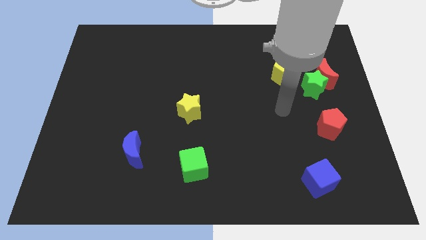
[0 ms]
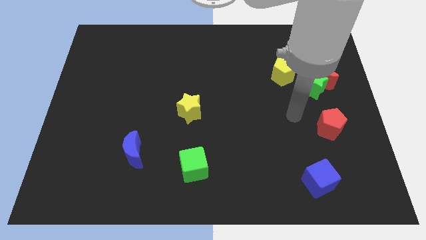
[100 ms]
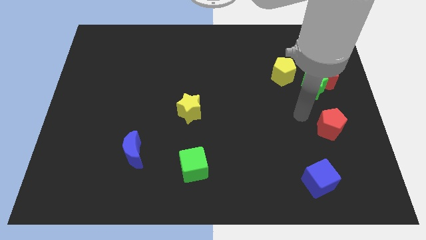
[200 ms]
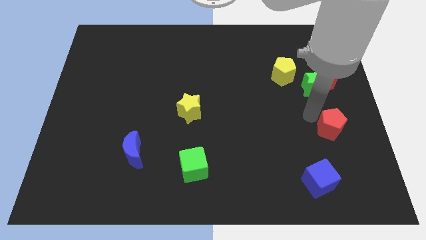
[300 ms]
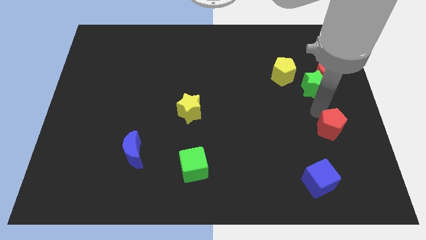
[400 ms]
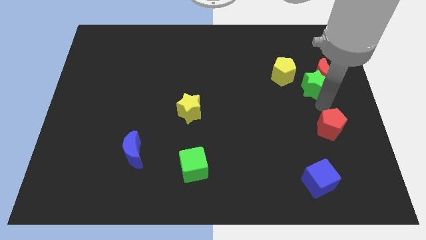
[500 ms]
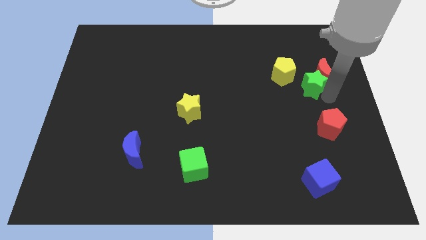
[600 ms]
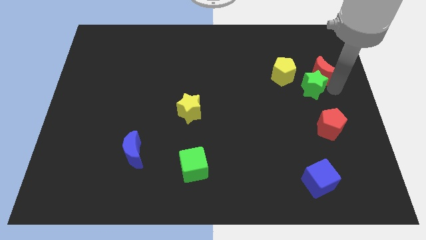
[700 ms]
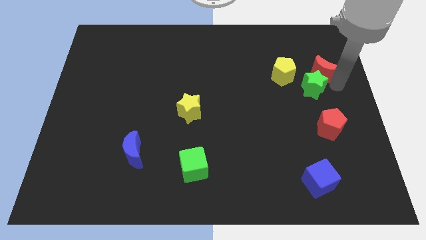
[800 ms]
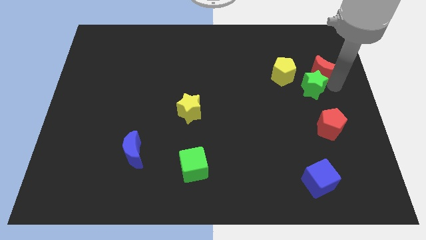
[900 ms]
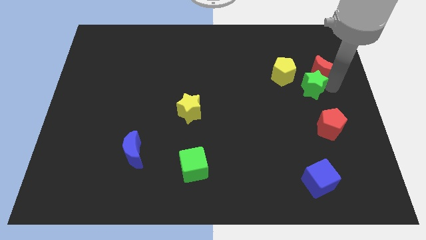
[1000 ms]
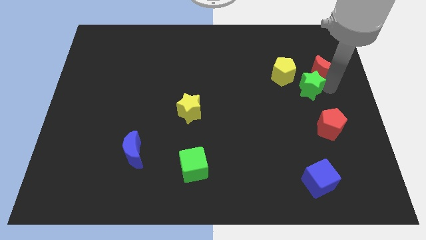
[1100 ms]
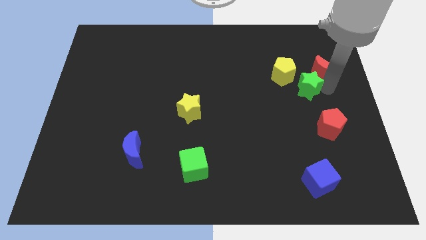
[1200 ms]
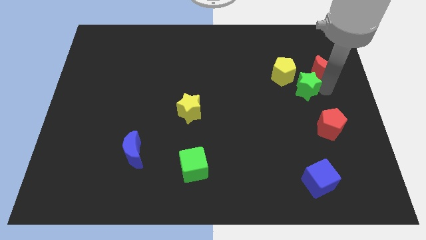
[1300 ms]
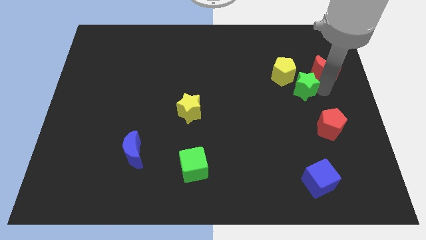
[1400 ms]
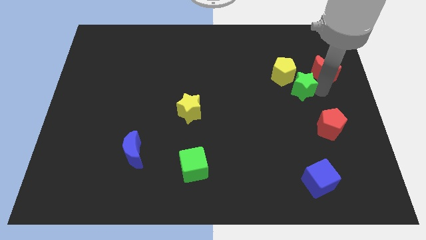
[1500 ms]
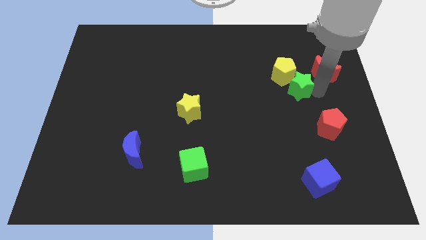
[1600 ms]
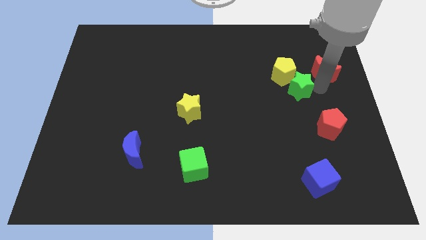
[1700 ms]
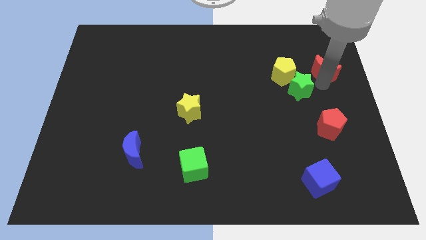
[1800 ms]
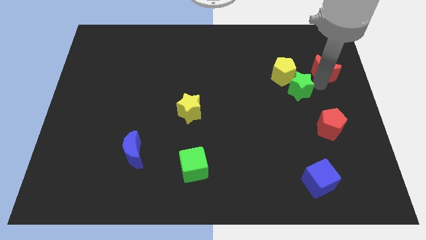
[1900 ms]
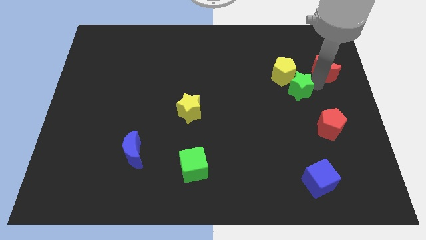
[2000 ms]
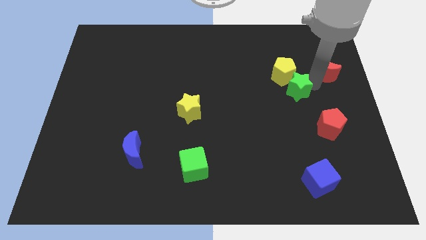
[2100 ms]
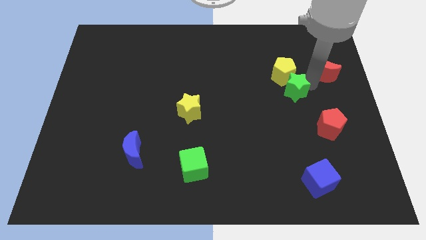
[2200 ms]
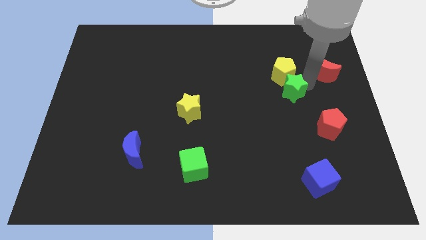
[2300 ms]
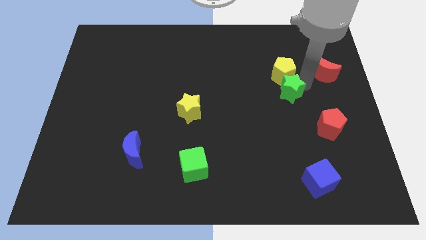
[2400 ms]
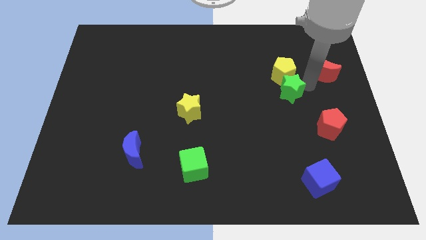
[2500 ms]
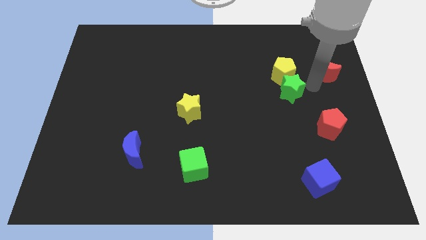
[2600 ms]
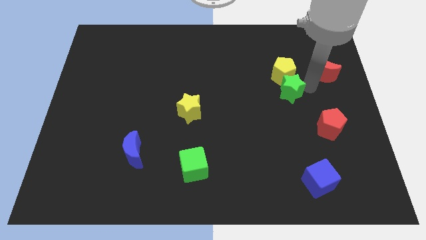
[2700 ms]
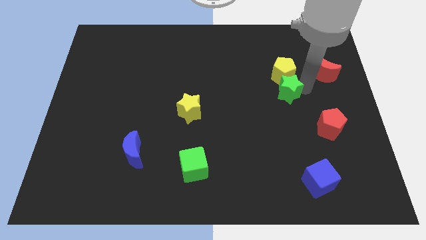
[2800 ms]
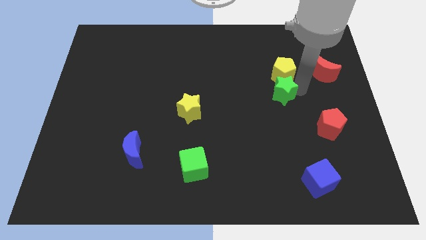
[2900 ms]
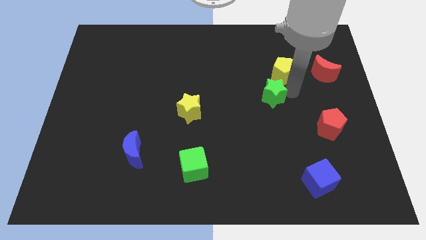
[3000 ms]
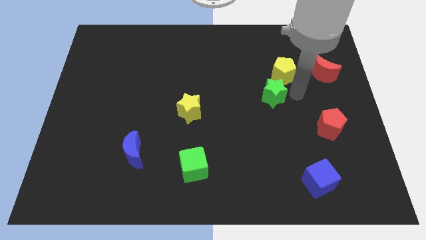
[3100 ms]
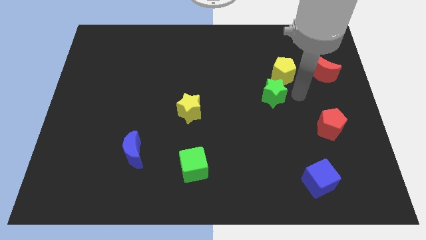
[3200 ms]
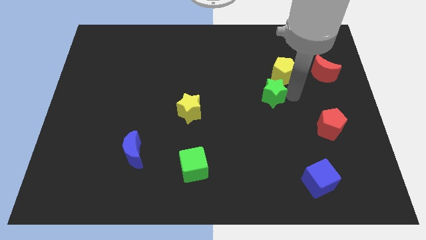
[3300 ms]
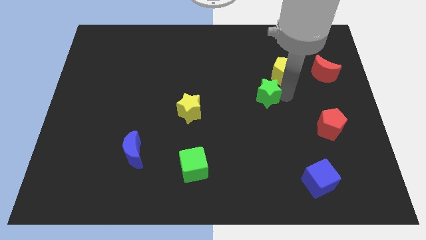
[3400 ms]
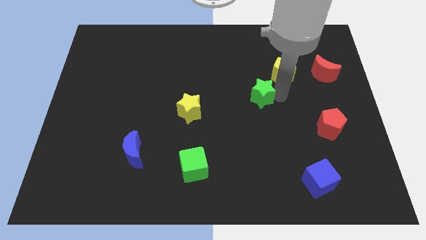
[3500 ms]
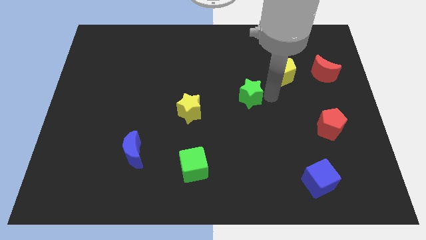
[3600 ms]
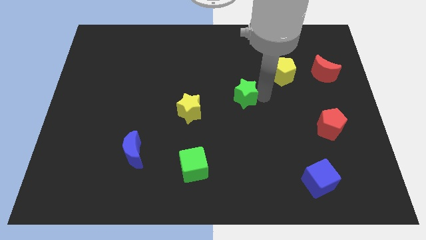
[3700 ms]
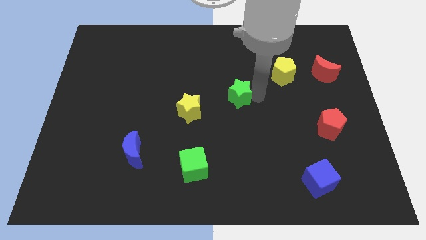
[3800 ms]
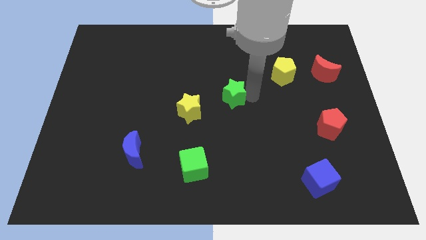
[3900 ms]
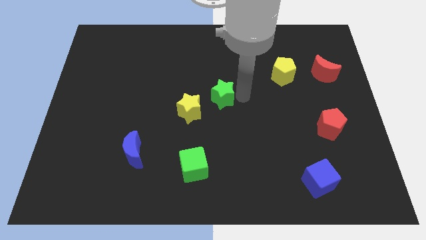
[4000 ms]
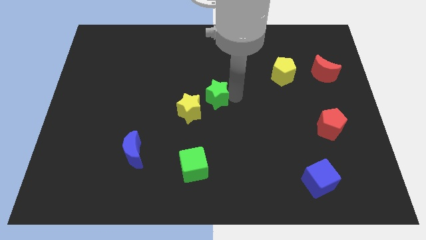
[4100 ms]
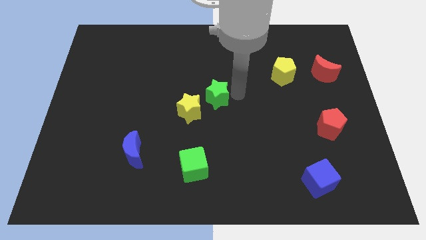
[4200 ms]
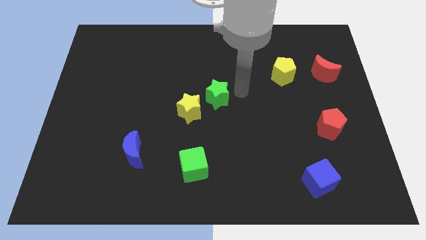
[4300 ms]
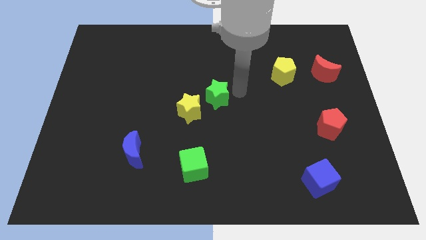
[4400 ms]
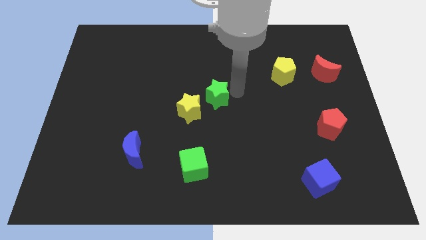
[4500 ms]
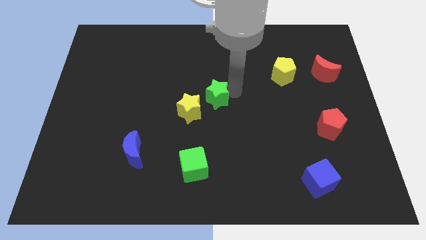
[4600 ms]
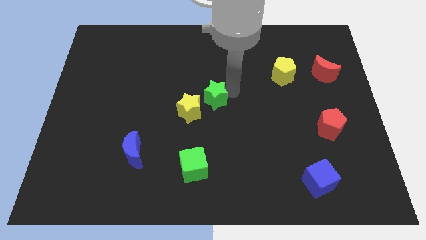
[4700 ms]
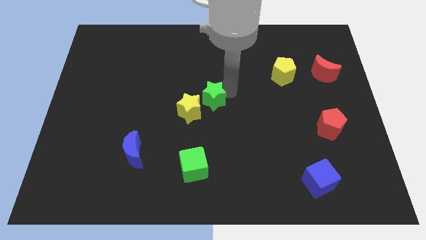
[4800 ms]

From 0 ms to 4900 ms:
slide the green star close to the yellow star

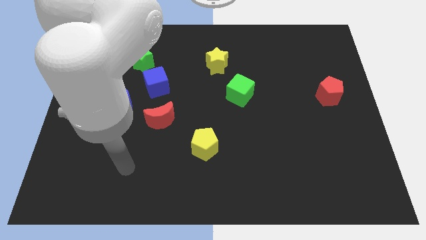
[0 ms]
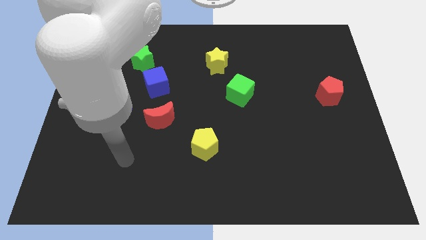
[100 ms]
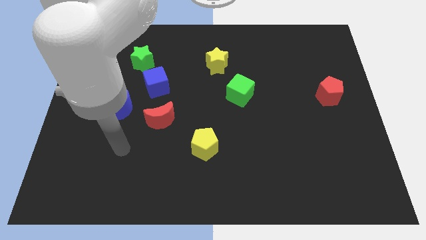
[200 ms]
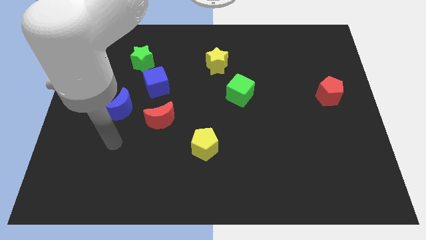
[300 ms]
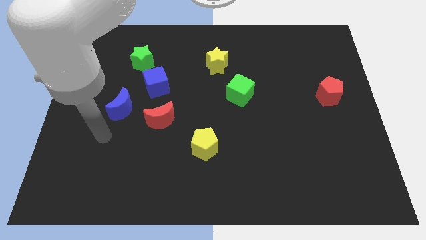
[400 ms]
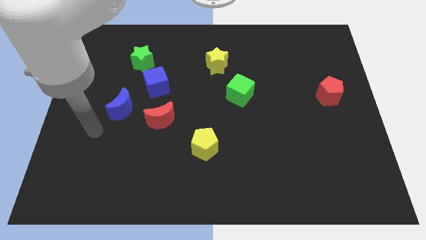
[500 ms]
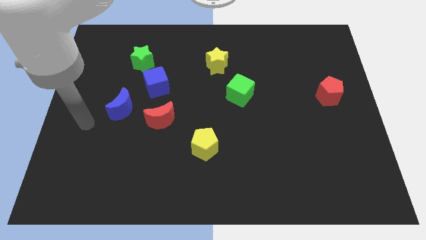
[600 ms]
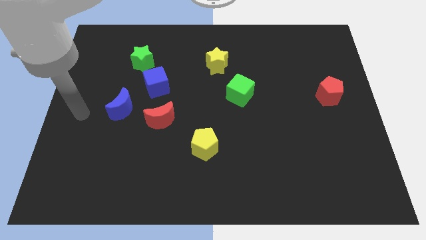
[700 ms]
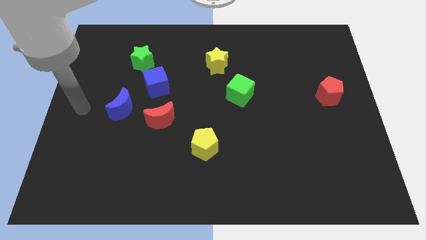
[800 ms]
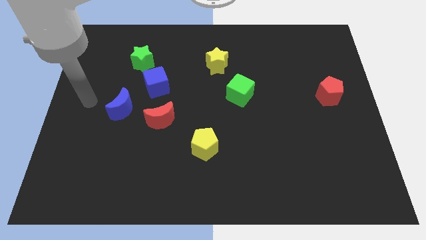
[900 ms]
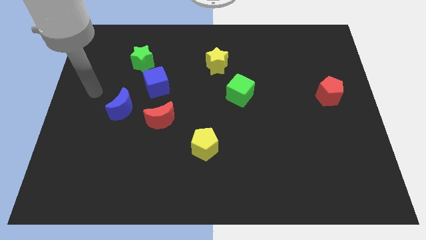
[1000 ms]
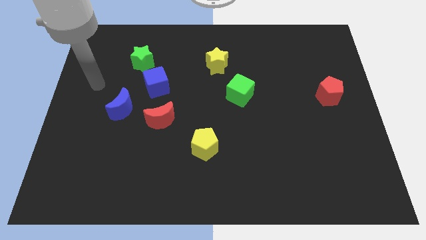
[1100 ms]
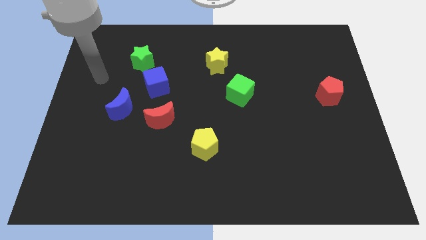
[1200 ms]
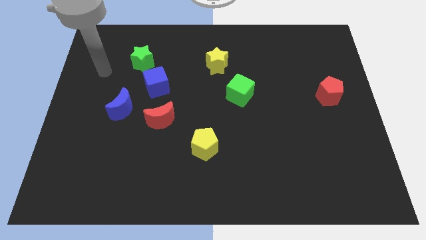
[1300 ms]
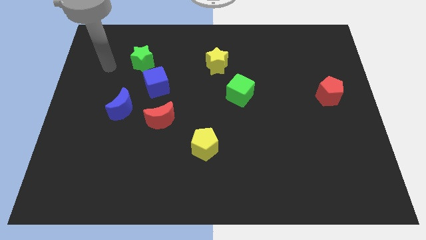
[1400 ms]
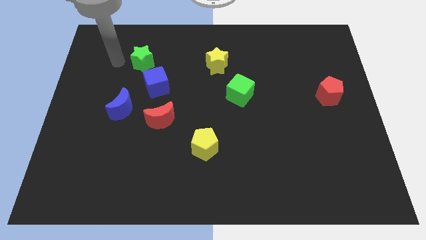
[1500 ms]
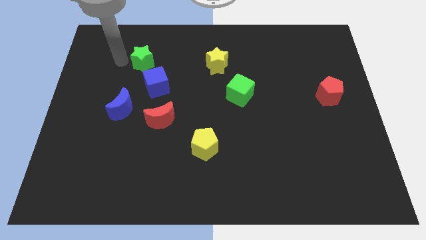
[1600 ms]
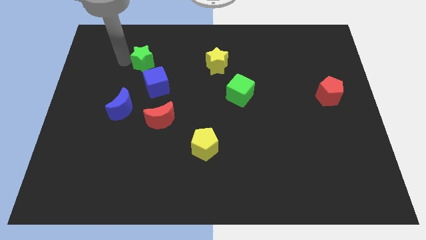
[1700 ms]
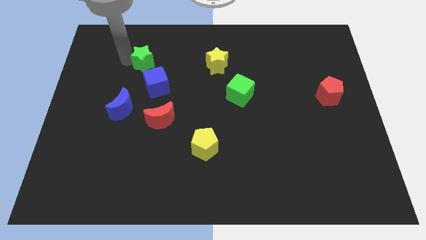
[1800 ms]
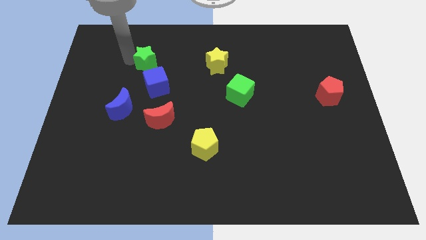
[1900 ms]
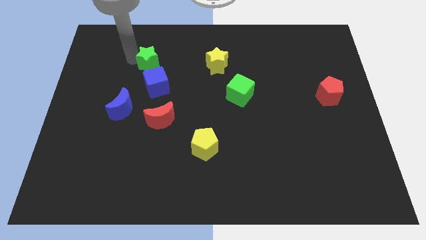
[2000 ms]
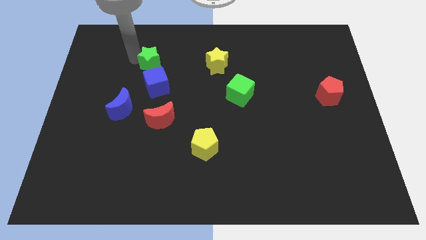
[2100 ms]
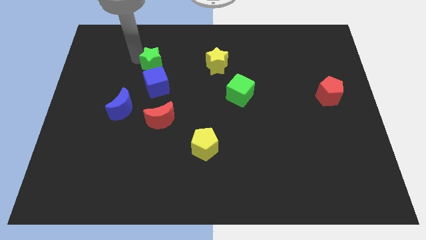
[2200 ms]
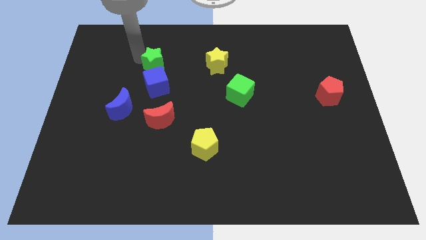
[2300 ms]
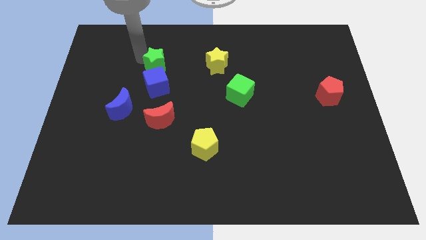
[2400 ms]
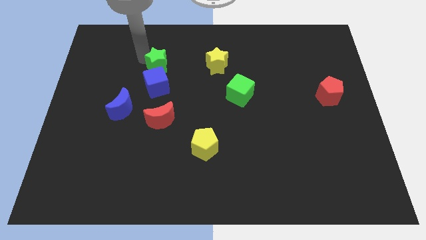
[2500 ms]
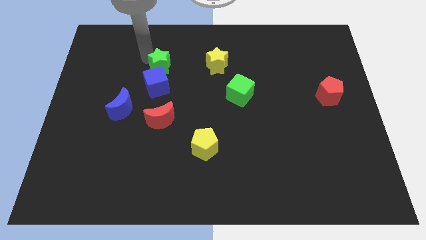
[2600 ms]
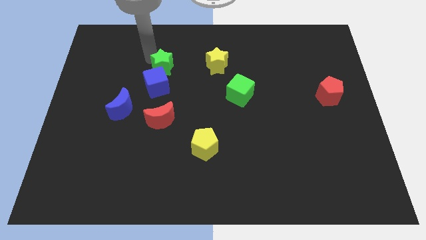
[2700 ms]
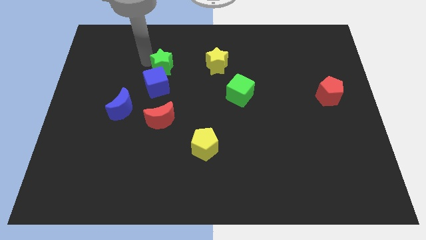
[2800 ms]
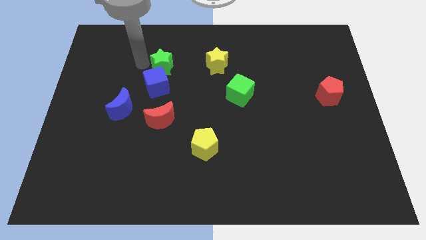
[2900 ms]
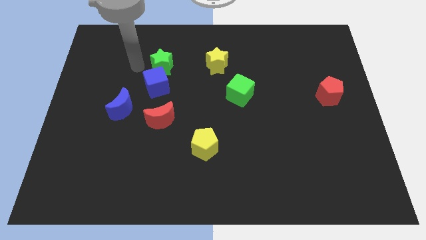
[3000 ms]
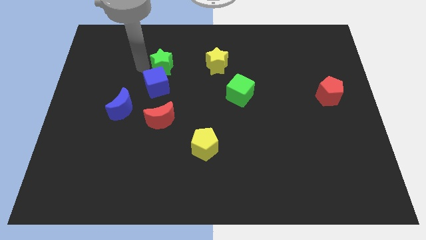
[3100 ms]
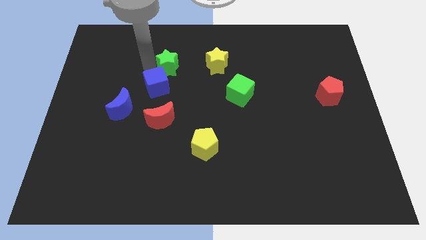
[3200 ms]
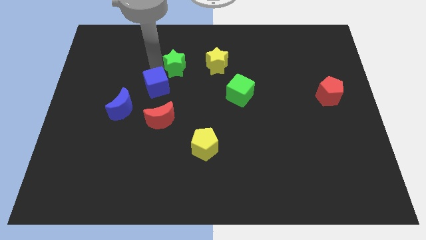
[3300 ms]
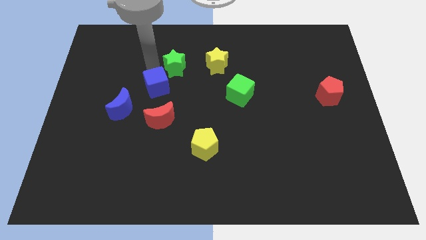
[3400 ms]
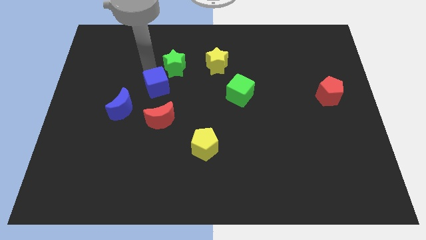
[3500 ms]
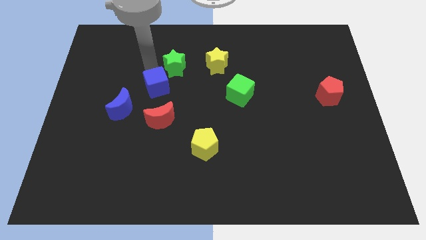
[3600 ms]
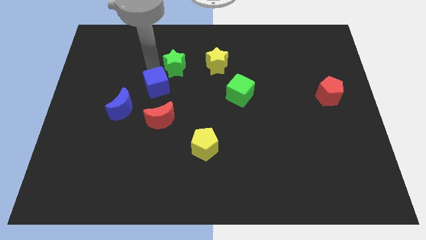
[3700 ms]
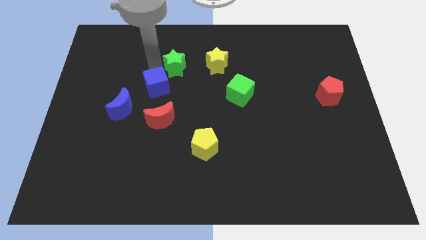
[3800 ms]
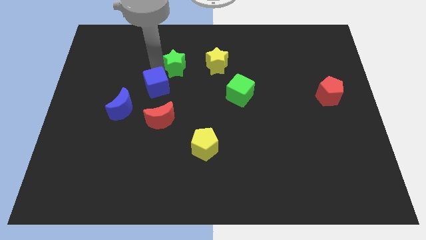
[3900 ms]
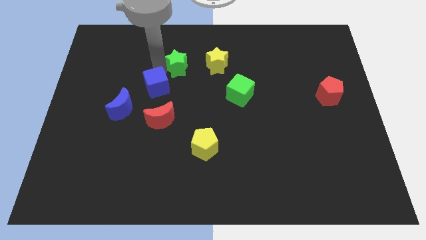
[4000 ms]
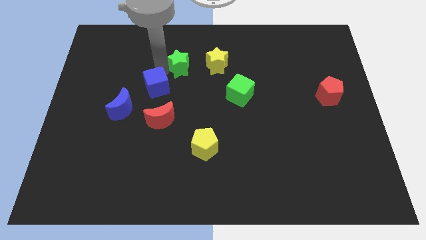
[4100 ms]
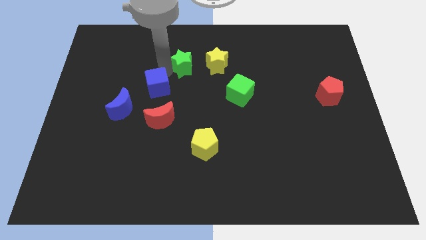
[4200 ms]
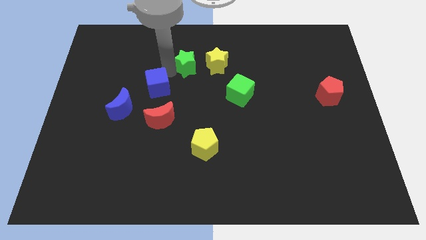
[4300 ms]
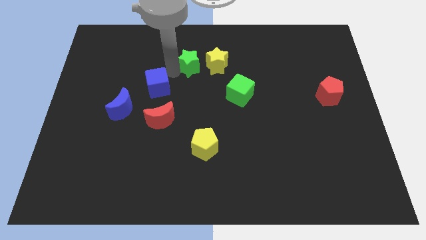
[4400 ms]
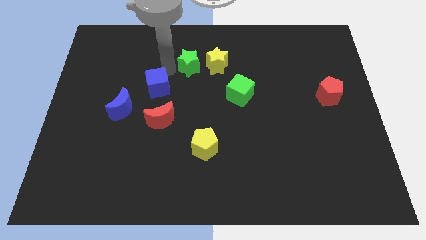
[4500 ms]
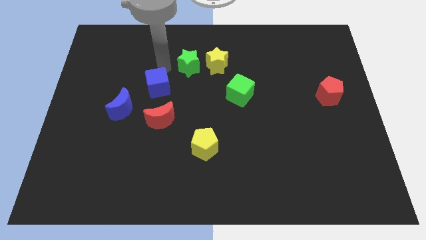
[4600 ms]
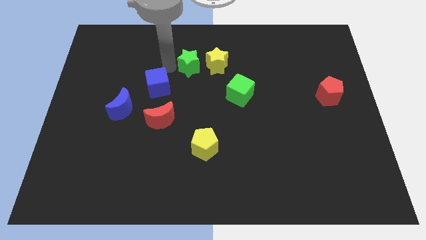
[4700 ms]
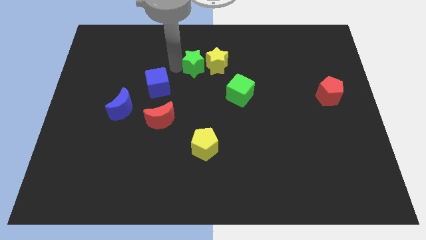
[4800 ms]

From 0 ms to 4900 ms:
push the green star towards the yellow star
